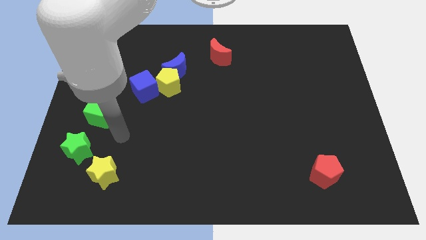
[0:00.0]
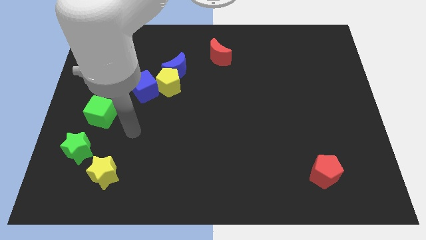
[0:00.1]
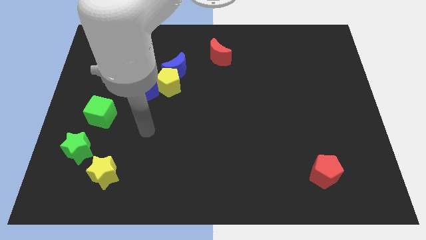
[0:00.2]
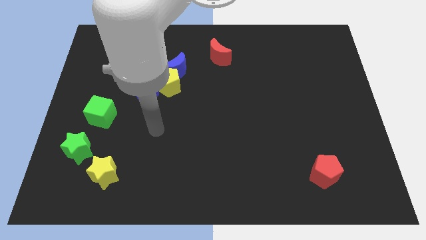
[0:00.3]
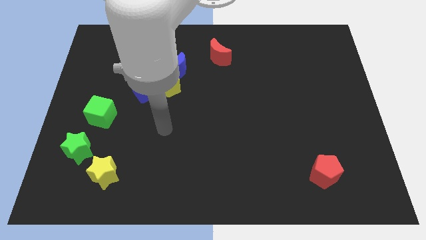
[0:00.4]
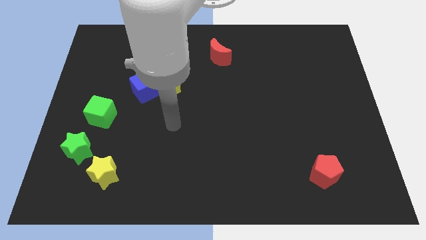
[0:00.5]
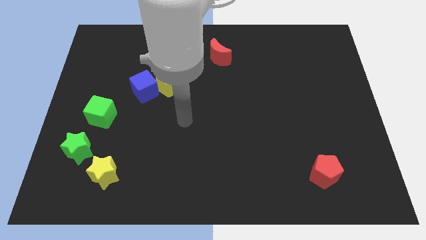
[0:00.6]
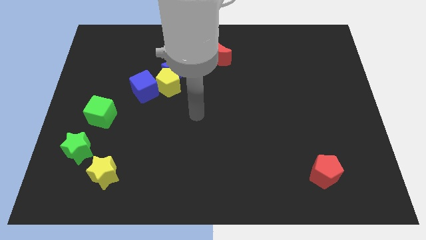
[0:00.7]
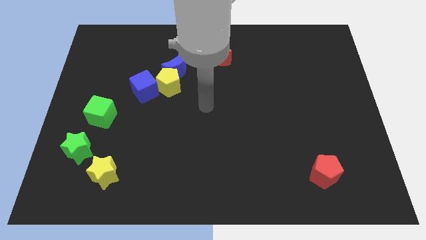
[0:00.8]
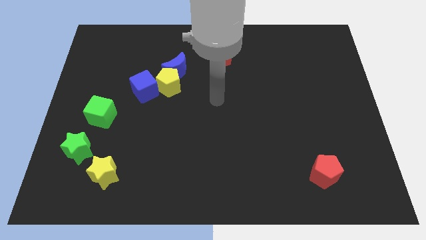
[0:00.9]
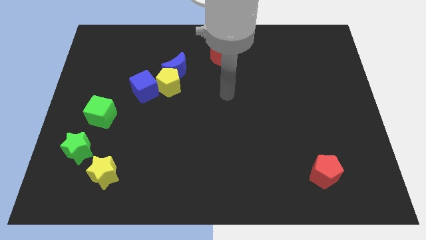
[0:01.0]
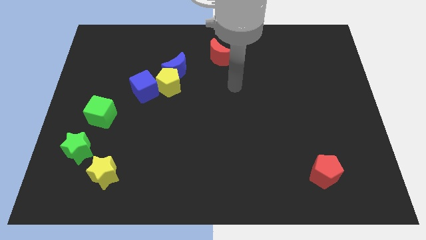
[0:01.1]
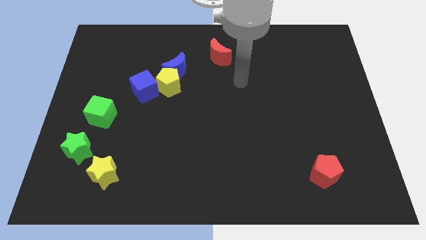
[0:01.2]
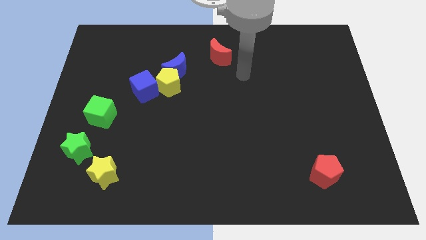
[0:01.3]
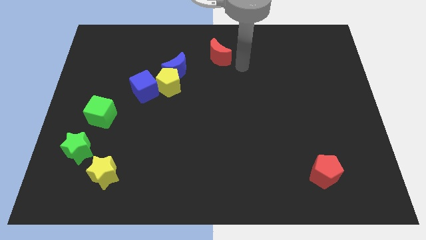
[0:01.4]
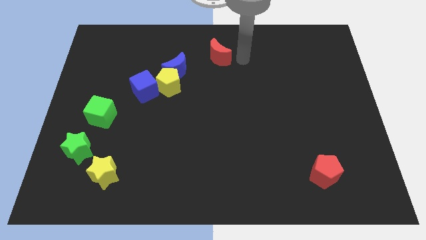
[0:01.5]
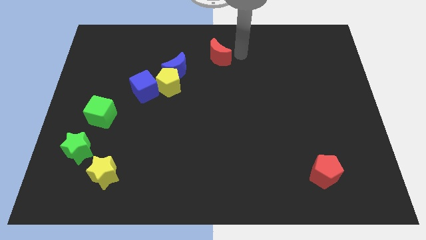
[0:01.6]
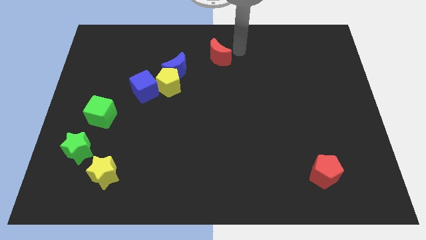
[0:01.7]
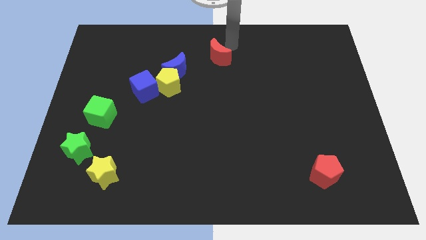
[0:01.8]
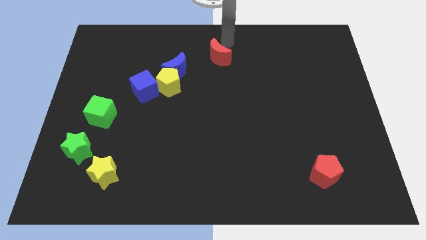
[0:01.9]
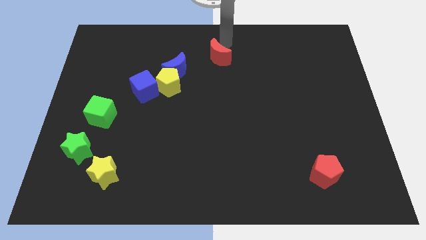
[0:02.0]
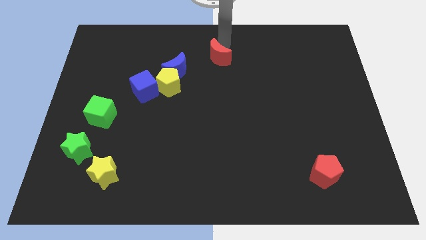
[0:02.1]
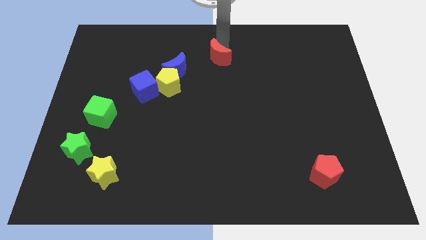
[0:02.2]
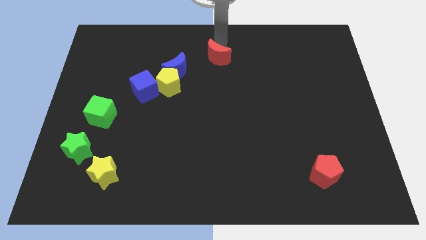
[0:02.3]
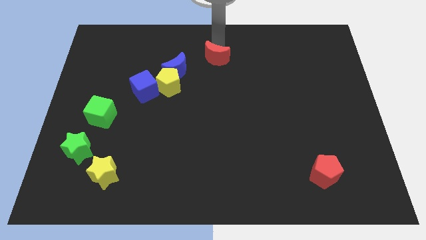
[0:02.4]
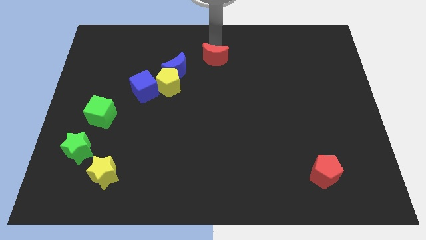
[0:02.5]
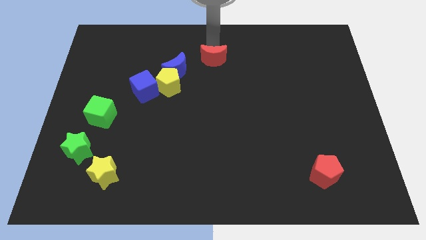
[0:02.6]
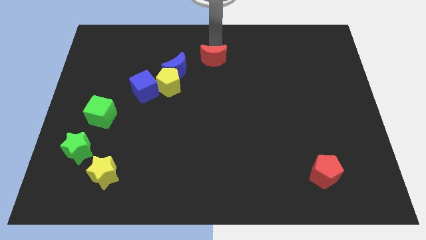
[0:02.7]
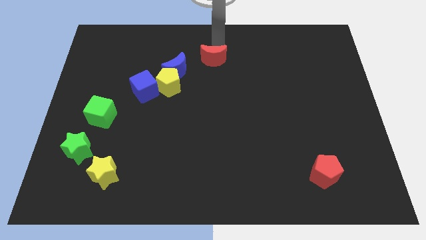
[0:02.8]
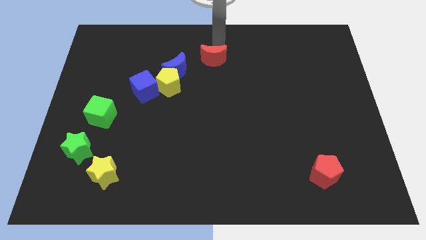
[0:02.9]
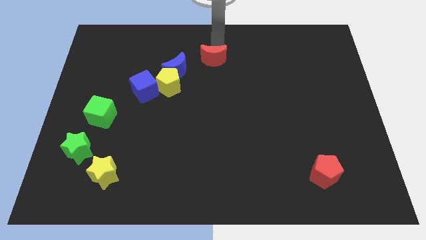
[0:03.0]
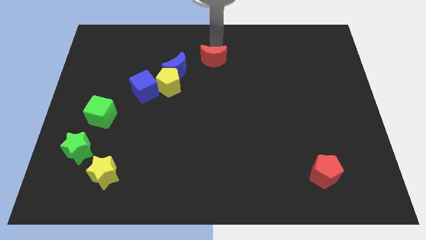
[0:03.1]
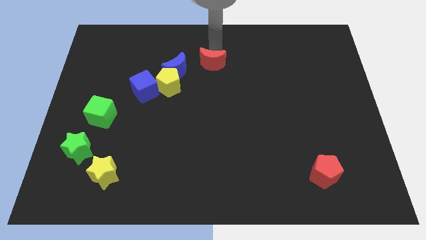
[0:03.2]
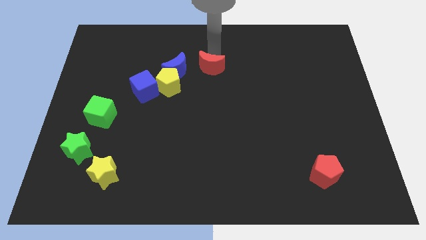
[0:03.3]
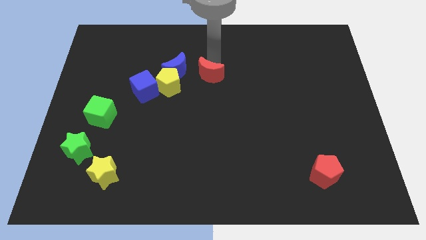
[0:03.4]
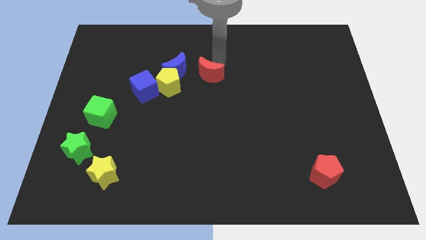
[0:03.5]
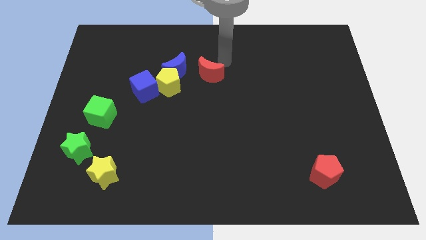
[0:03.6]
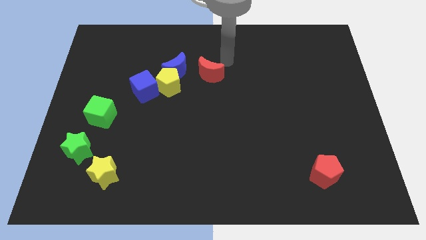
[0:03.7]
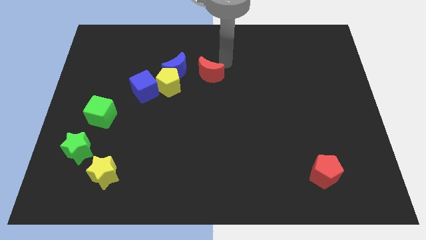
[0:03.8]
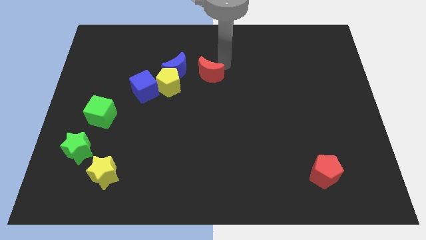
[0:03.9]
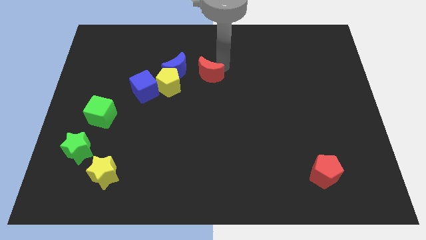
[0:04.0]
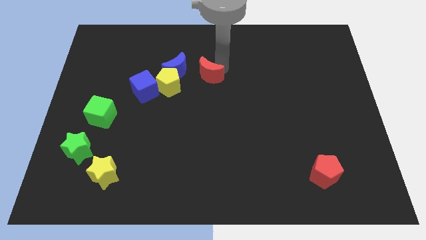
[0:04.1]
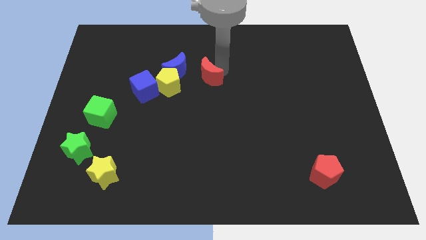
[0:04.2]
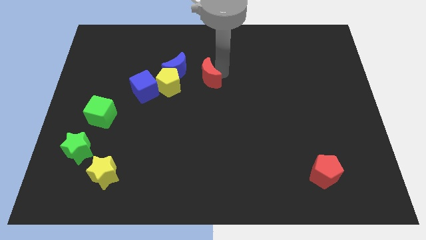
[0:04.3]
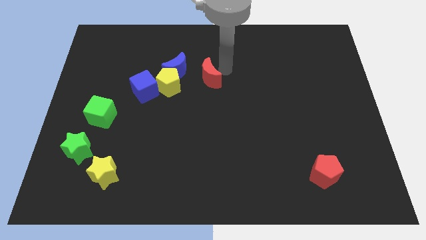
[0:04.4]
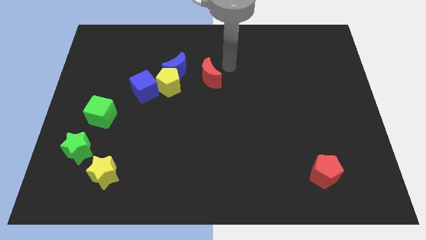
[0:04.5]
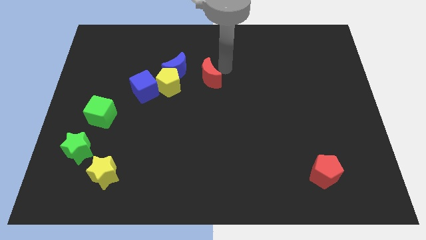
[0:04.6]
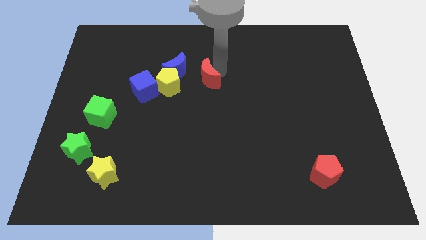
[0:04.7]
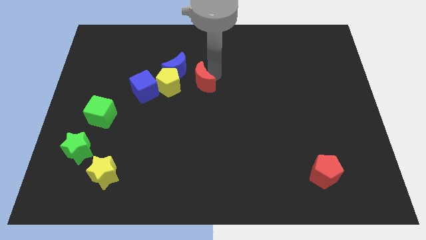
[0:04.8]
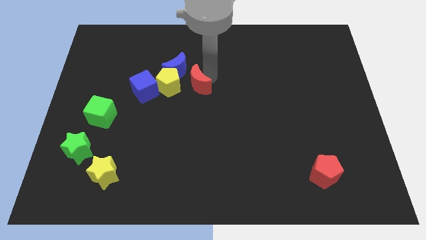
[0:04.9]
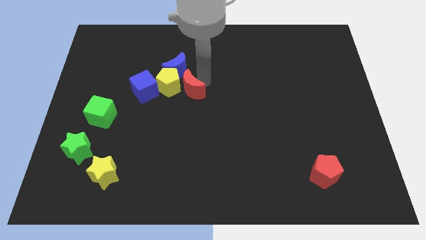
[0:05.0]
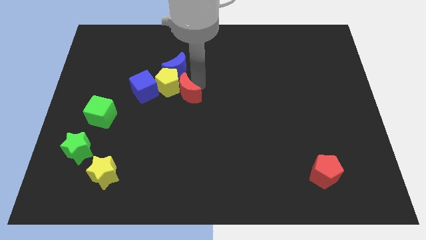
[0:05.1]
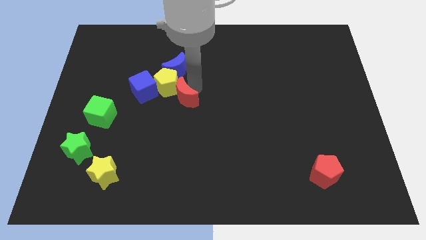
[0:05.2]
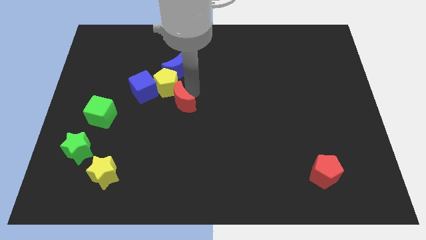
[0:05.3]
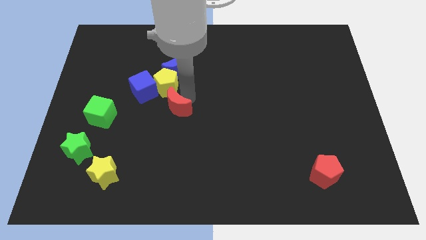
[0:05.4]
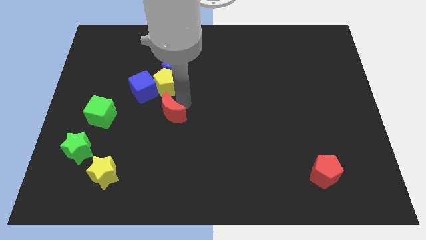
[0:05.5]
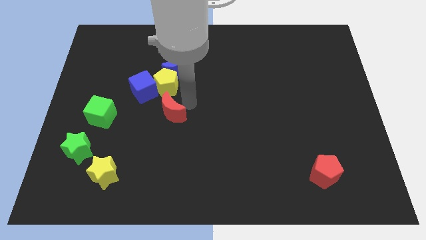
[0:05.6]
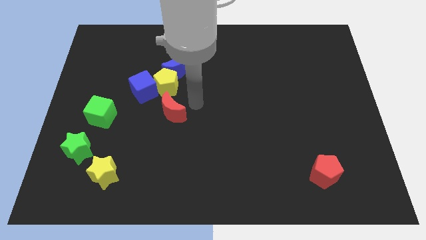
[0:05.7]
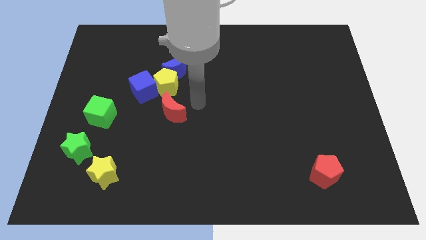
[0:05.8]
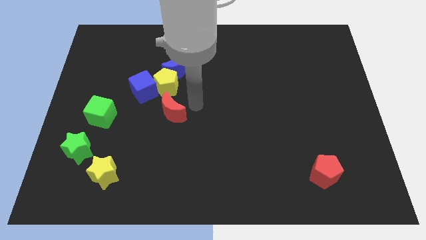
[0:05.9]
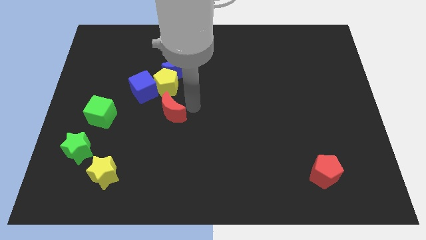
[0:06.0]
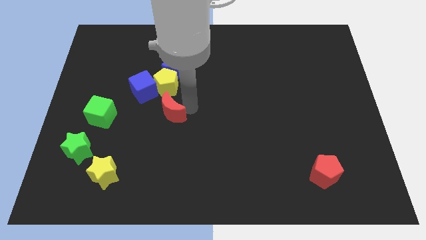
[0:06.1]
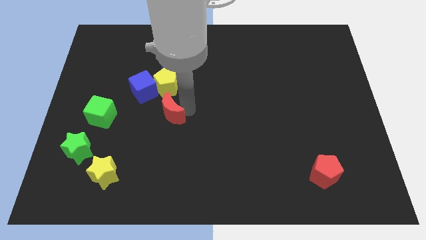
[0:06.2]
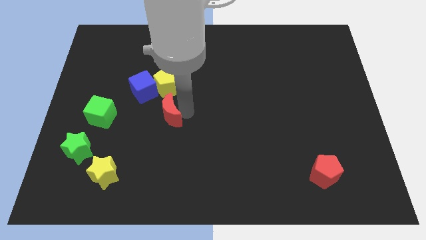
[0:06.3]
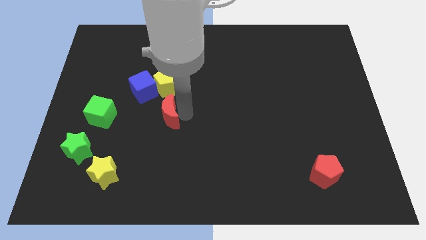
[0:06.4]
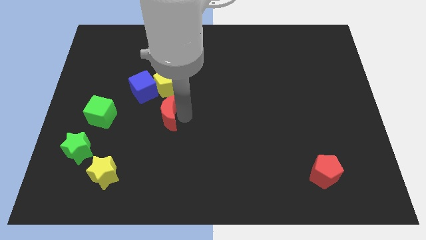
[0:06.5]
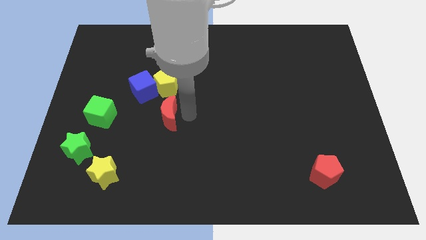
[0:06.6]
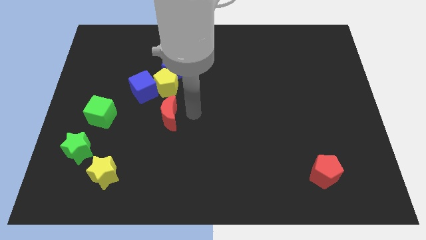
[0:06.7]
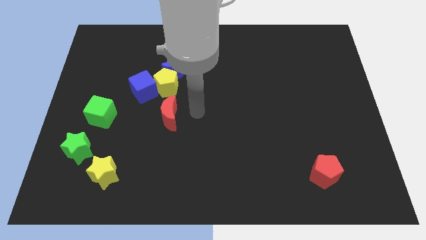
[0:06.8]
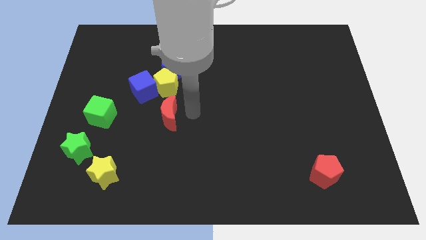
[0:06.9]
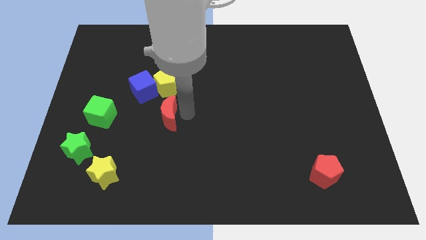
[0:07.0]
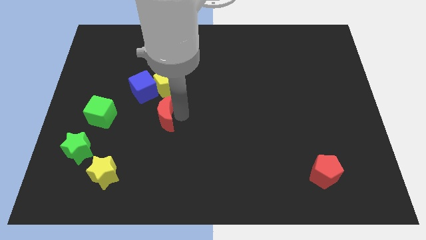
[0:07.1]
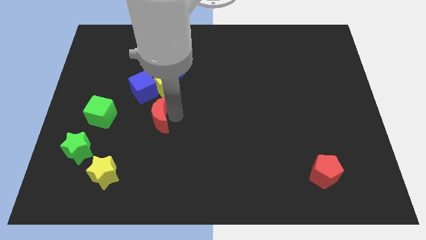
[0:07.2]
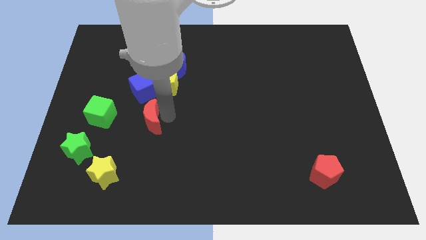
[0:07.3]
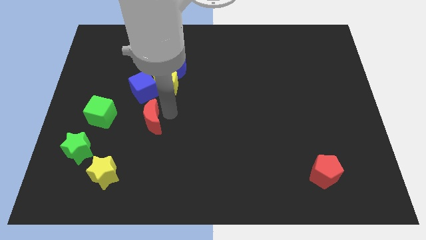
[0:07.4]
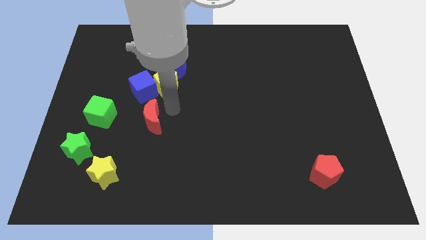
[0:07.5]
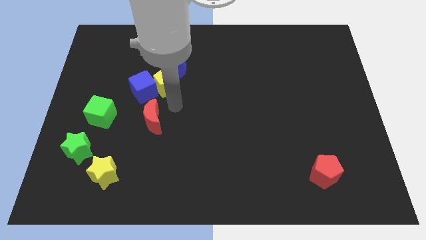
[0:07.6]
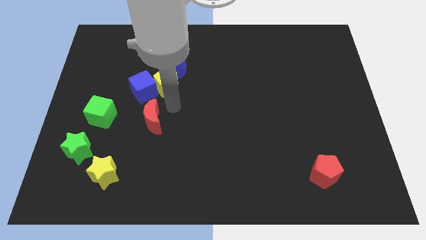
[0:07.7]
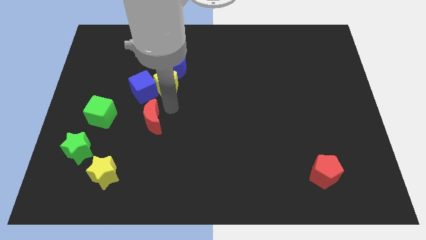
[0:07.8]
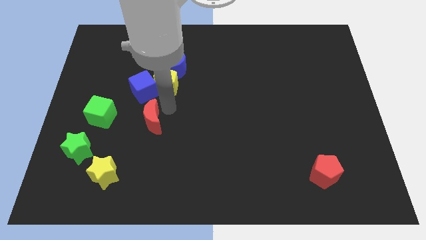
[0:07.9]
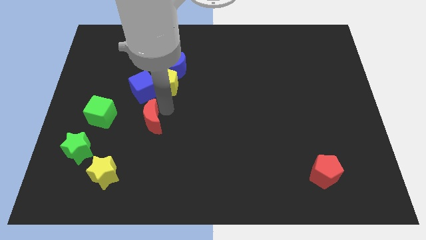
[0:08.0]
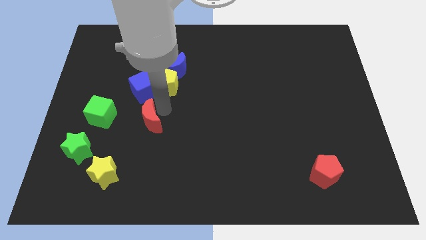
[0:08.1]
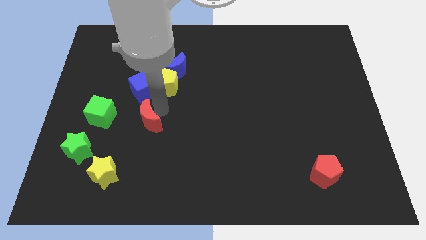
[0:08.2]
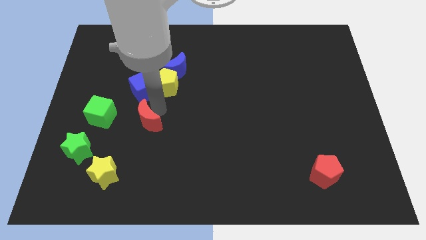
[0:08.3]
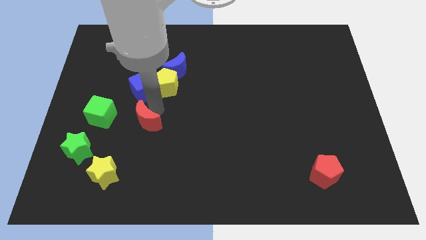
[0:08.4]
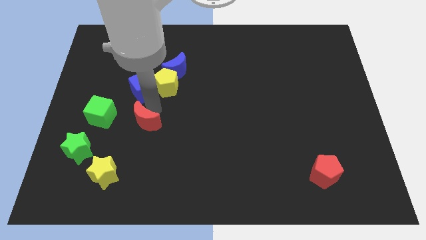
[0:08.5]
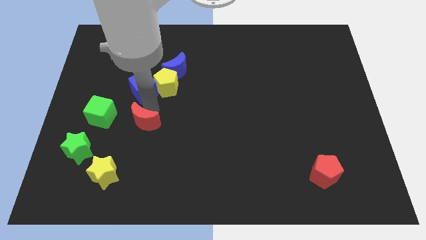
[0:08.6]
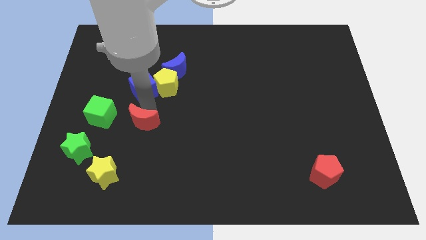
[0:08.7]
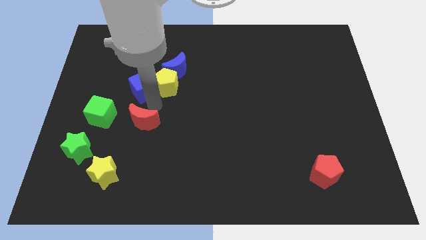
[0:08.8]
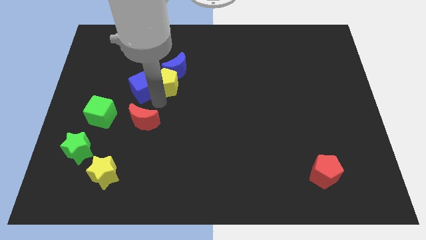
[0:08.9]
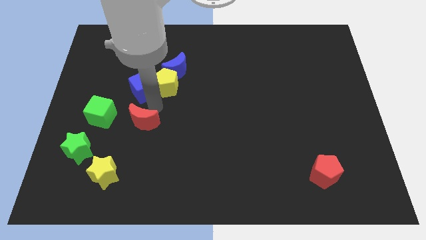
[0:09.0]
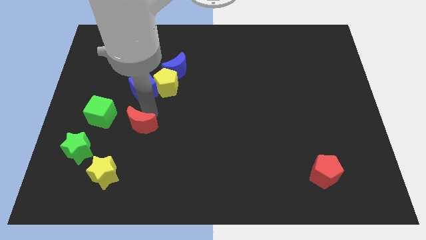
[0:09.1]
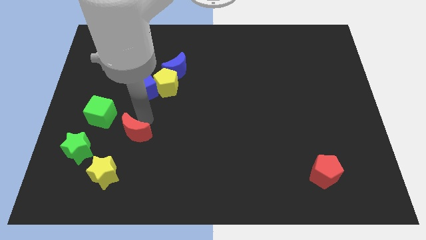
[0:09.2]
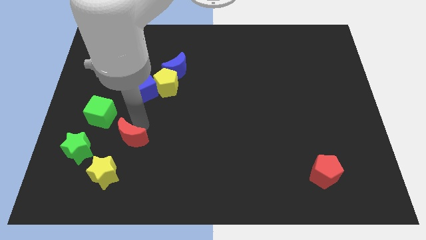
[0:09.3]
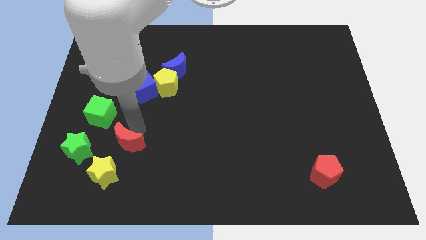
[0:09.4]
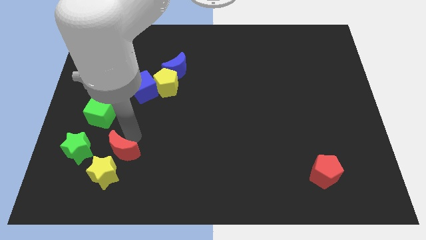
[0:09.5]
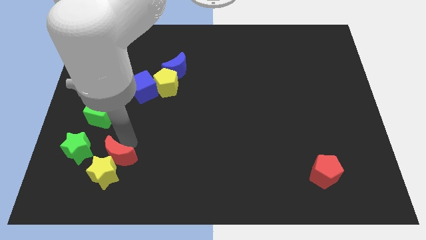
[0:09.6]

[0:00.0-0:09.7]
put the red moon next to the yellow star
